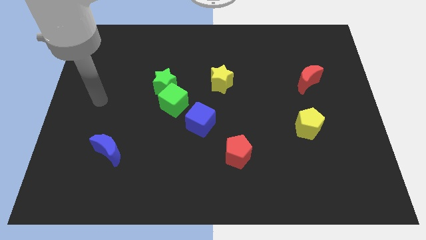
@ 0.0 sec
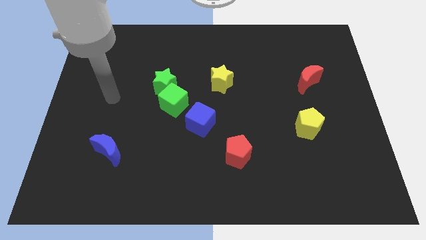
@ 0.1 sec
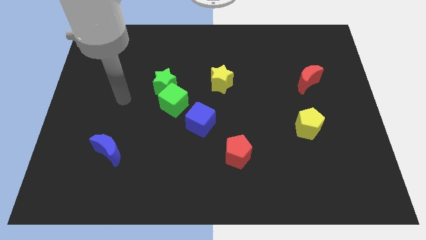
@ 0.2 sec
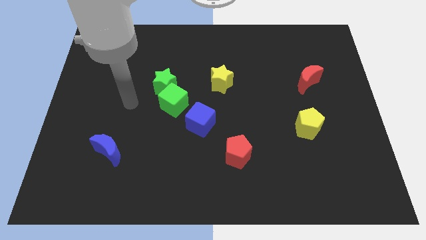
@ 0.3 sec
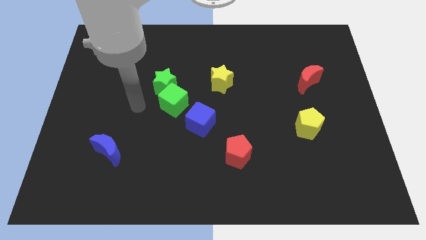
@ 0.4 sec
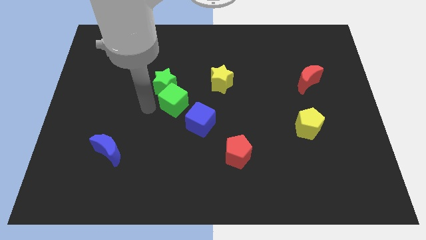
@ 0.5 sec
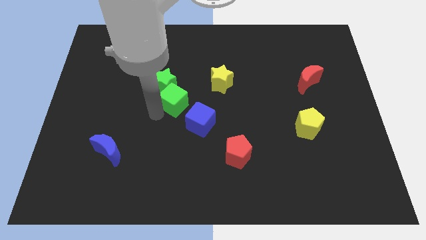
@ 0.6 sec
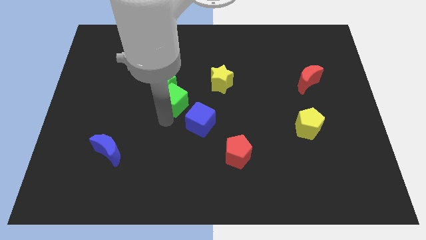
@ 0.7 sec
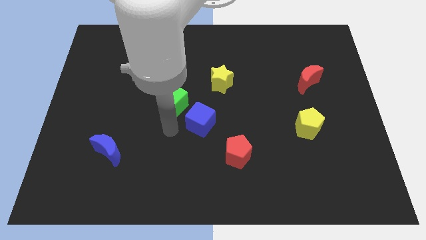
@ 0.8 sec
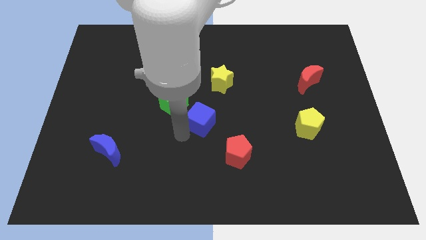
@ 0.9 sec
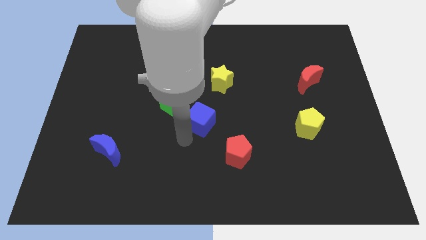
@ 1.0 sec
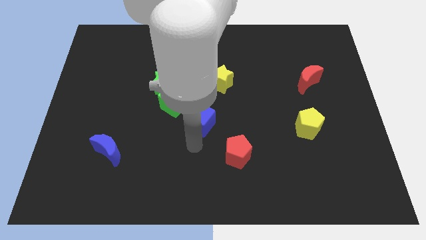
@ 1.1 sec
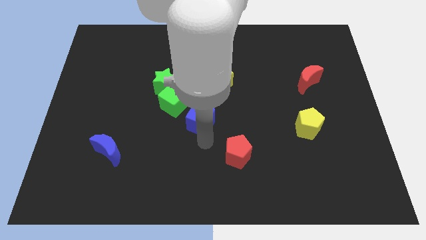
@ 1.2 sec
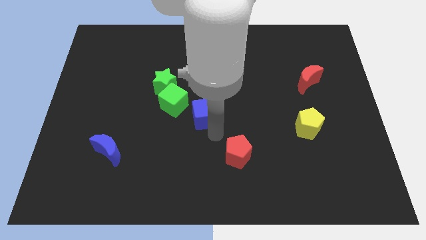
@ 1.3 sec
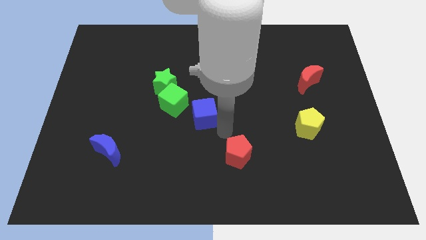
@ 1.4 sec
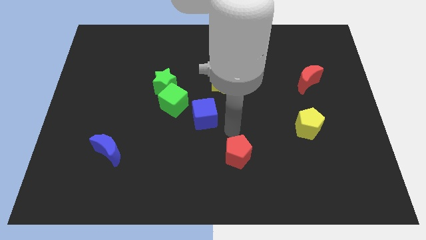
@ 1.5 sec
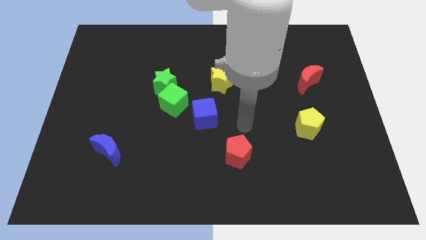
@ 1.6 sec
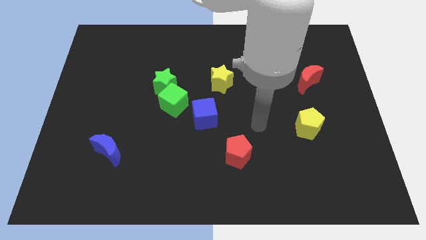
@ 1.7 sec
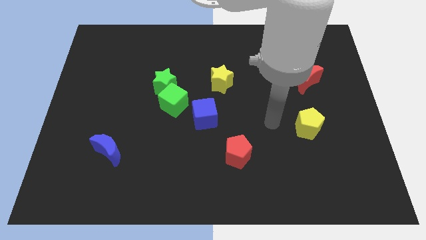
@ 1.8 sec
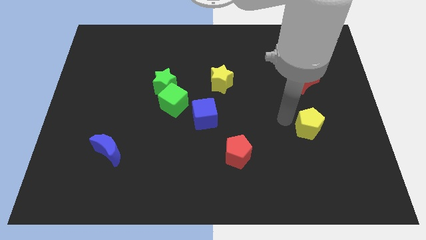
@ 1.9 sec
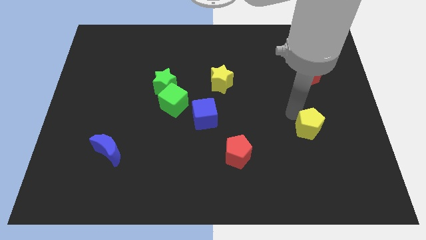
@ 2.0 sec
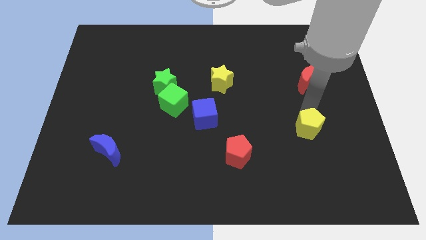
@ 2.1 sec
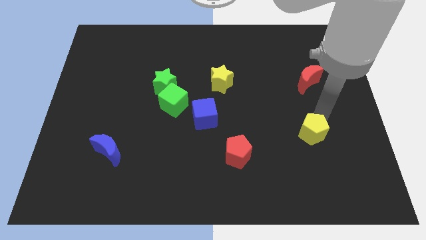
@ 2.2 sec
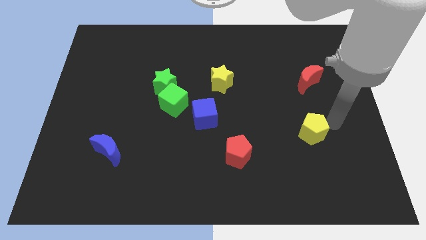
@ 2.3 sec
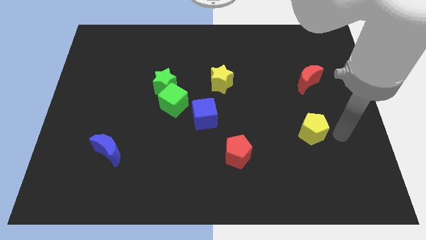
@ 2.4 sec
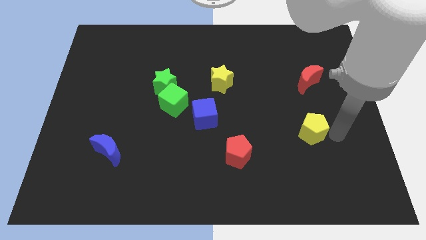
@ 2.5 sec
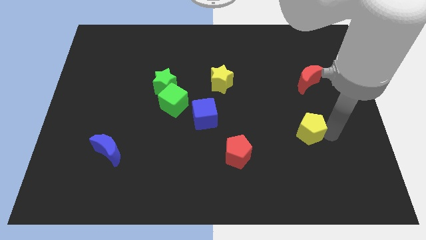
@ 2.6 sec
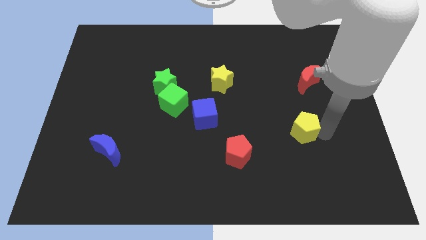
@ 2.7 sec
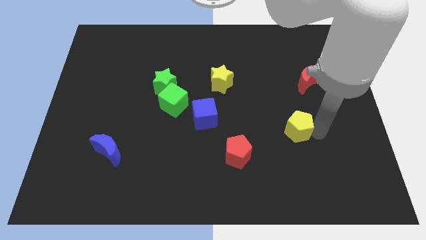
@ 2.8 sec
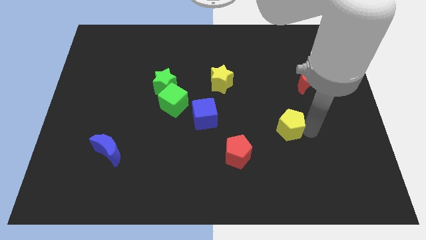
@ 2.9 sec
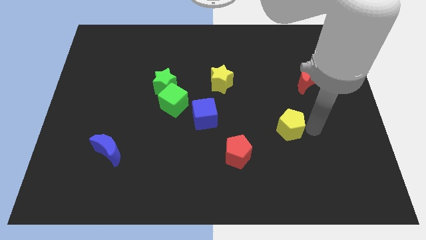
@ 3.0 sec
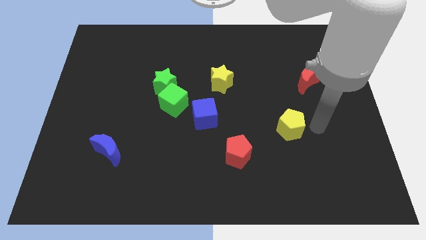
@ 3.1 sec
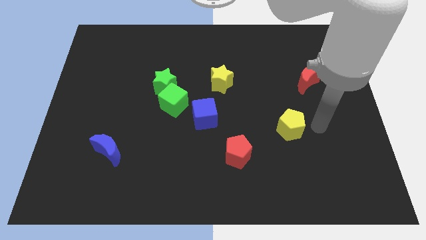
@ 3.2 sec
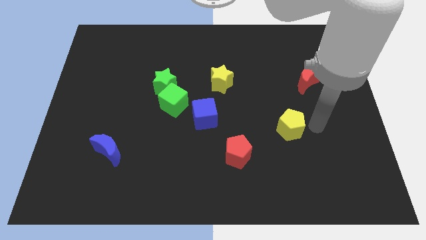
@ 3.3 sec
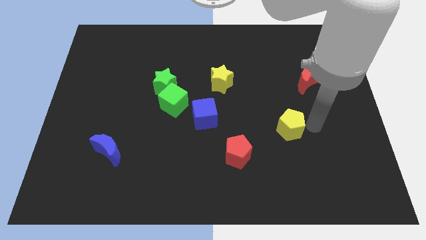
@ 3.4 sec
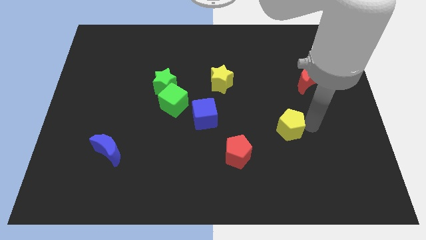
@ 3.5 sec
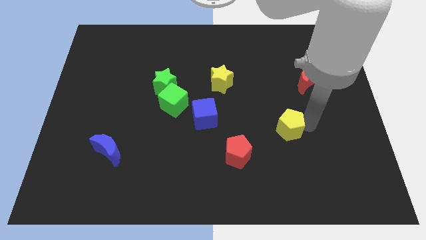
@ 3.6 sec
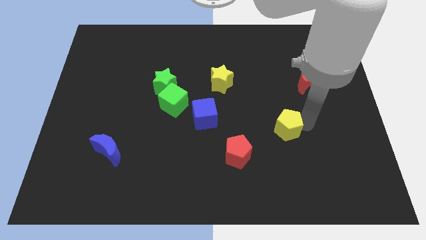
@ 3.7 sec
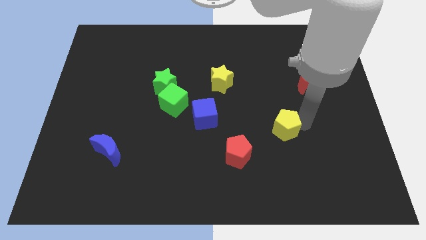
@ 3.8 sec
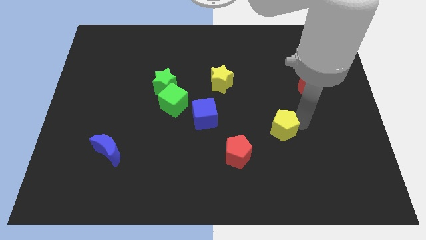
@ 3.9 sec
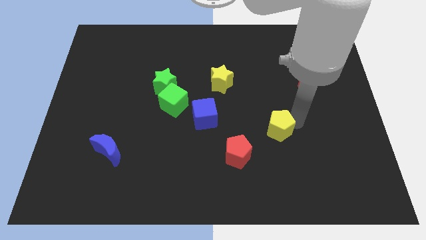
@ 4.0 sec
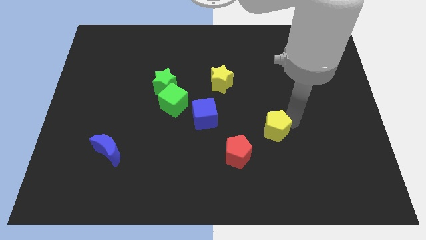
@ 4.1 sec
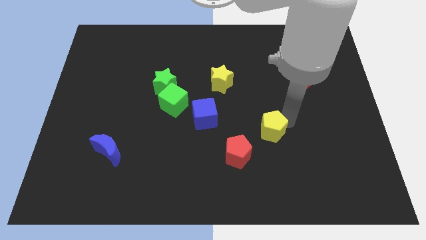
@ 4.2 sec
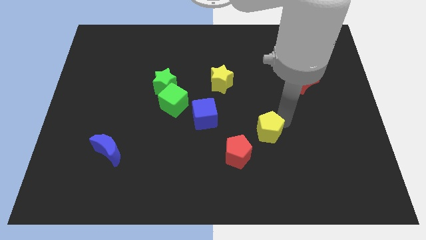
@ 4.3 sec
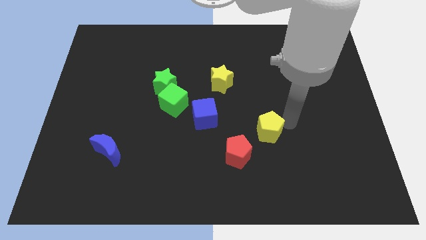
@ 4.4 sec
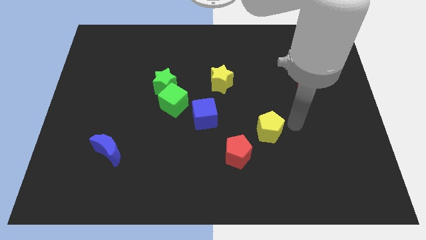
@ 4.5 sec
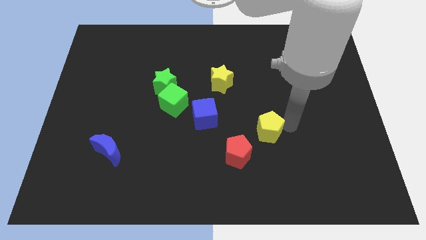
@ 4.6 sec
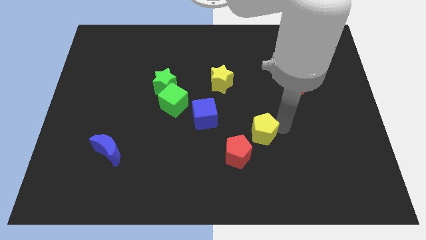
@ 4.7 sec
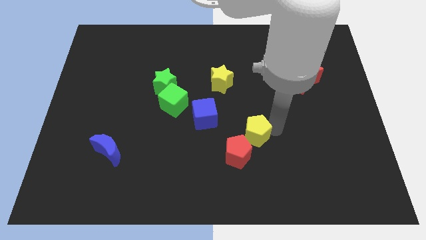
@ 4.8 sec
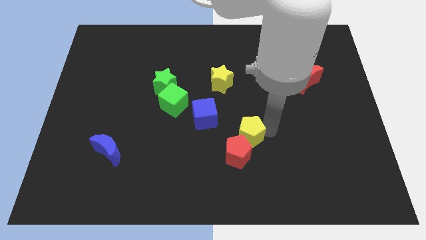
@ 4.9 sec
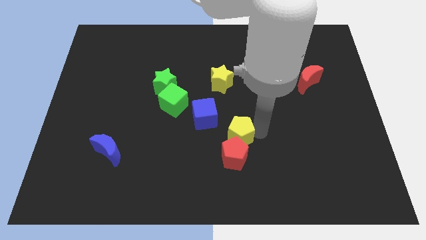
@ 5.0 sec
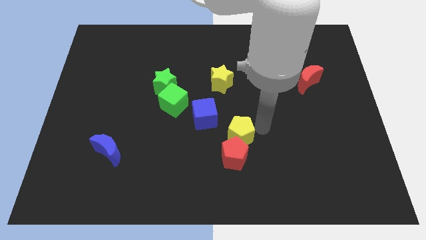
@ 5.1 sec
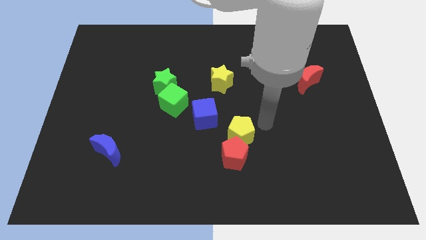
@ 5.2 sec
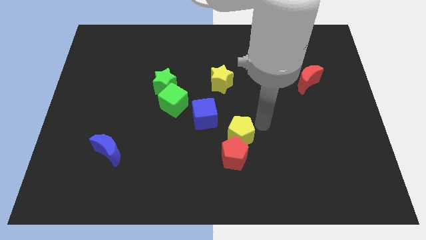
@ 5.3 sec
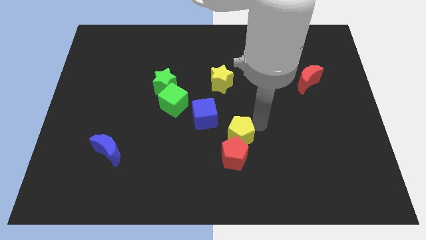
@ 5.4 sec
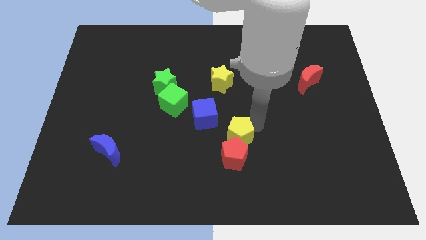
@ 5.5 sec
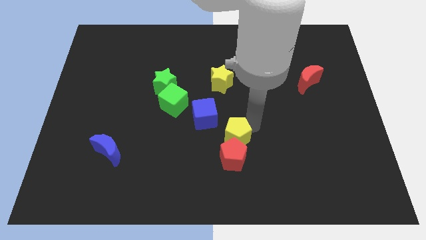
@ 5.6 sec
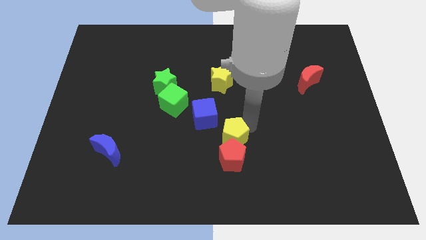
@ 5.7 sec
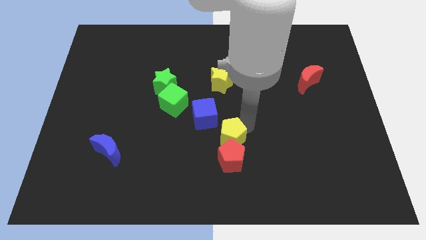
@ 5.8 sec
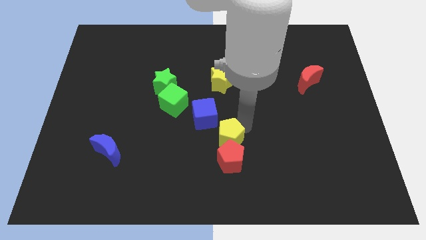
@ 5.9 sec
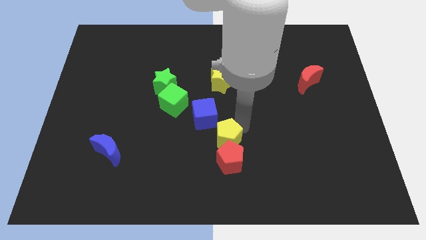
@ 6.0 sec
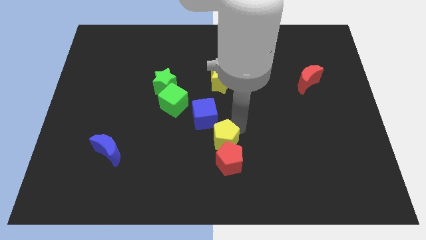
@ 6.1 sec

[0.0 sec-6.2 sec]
put the yellow pentagon to the bottom of the blue cube
